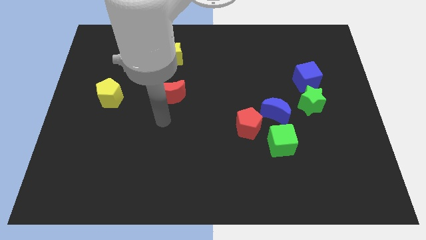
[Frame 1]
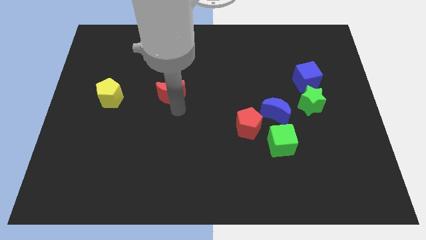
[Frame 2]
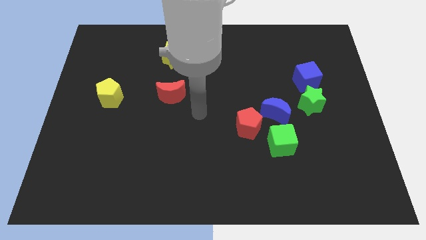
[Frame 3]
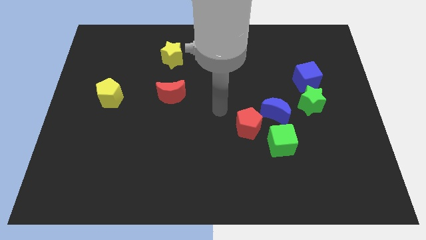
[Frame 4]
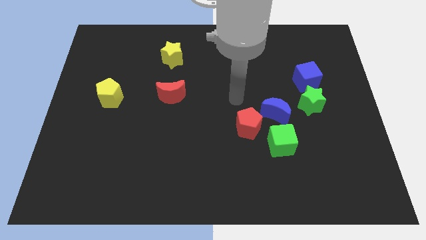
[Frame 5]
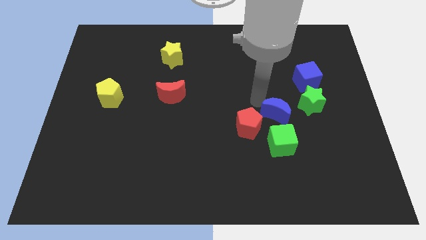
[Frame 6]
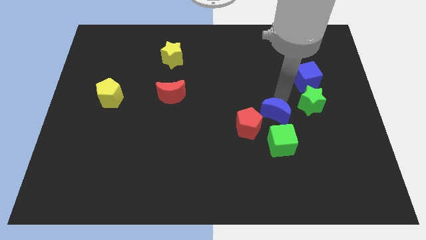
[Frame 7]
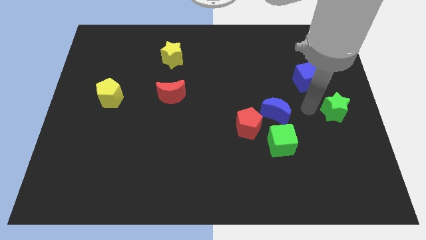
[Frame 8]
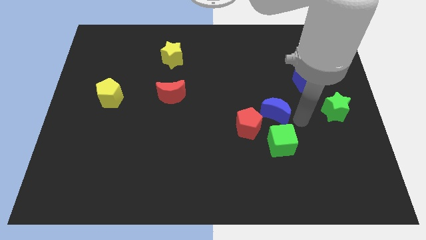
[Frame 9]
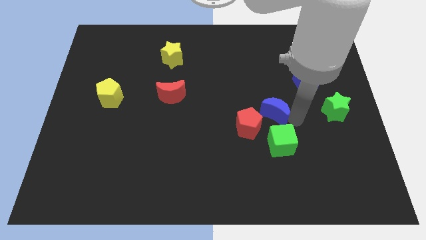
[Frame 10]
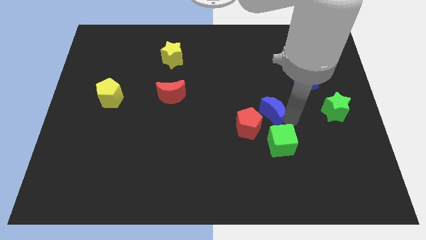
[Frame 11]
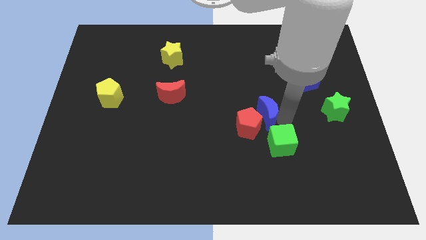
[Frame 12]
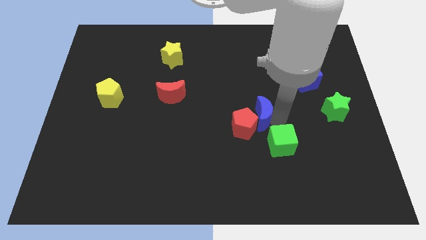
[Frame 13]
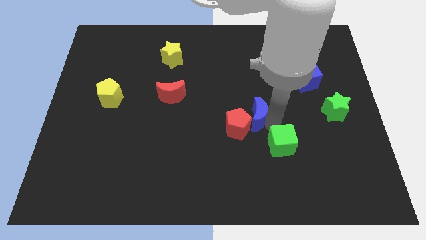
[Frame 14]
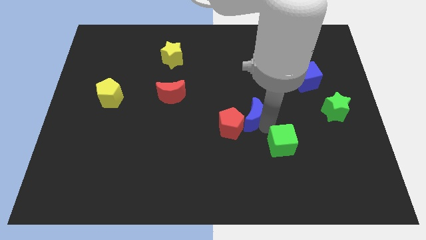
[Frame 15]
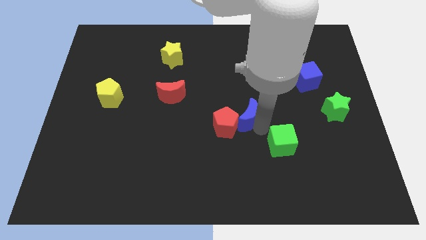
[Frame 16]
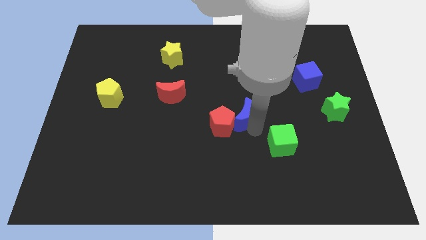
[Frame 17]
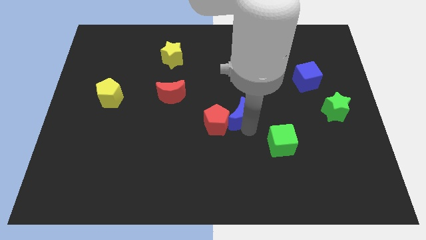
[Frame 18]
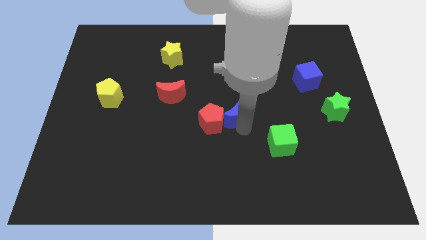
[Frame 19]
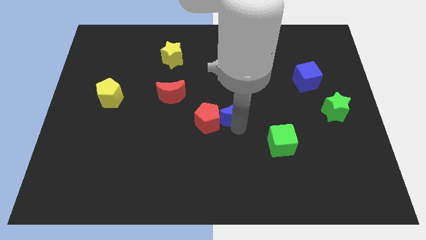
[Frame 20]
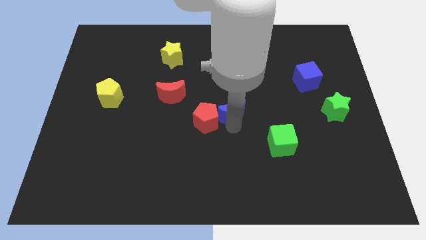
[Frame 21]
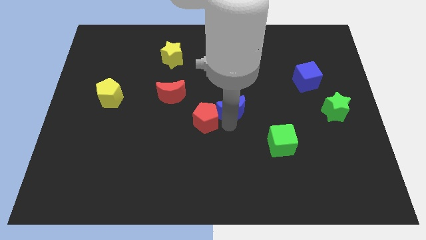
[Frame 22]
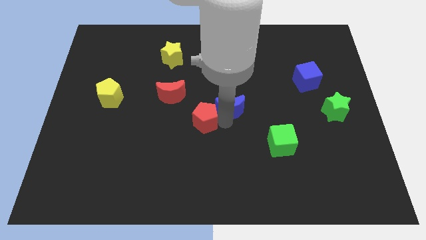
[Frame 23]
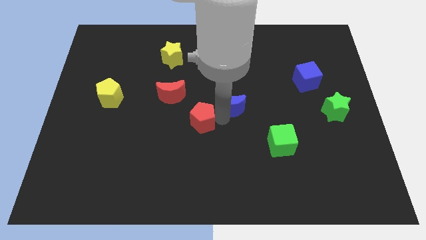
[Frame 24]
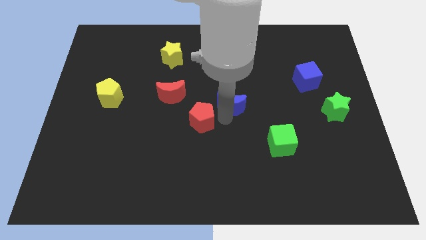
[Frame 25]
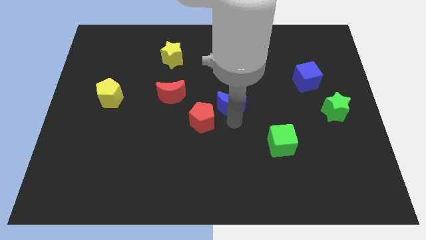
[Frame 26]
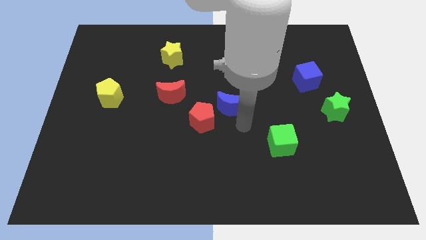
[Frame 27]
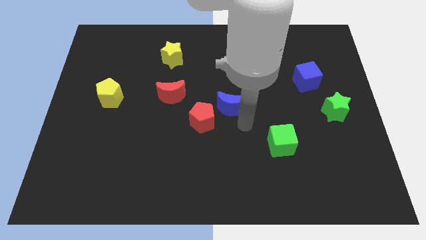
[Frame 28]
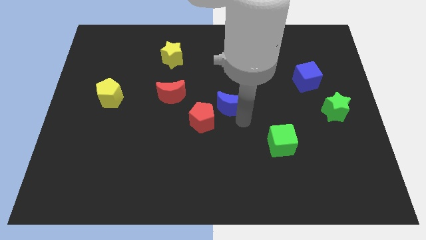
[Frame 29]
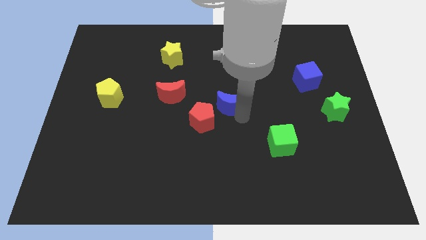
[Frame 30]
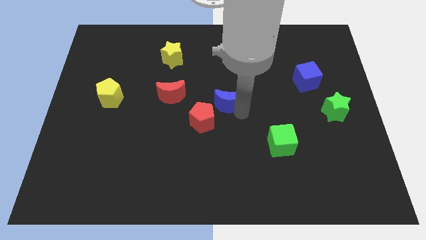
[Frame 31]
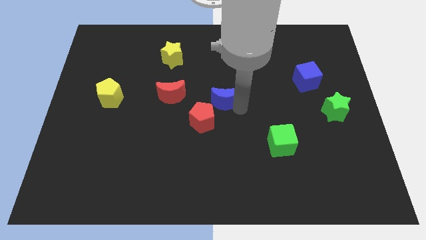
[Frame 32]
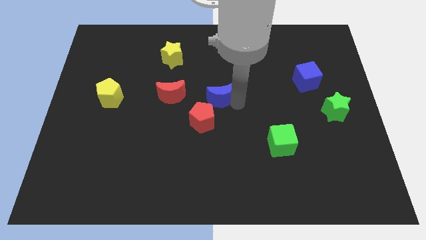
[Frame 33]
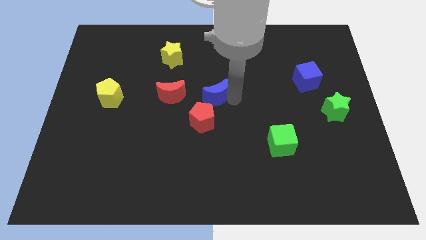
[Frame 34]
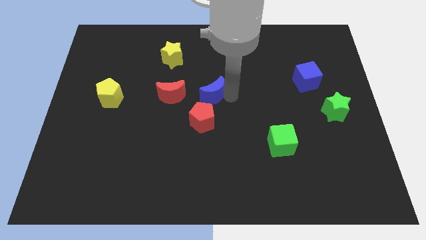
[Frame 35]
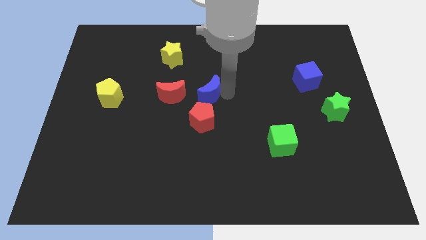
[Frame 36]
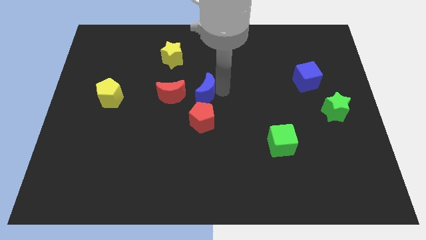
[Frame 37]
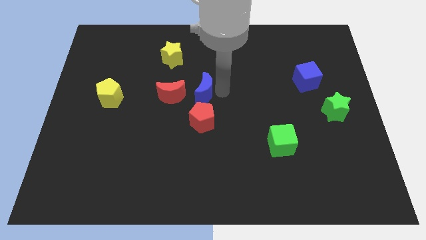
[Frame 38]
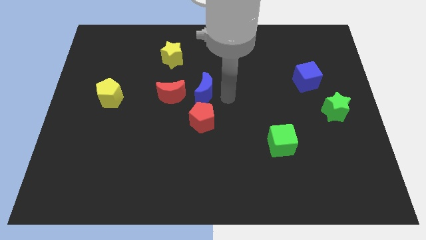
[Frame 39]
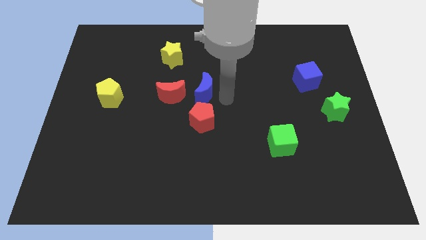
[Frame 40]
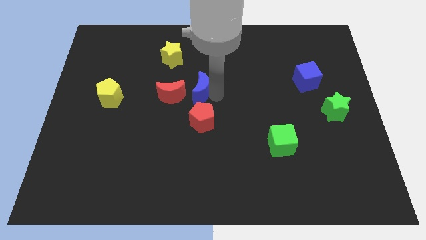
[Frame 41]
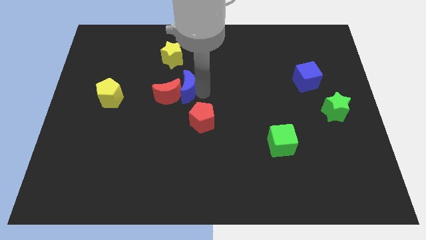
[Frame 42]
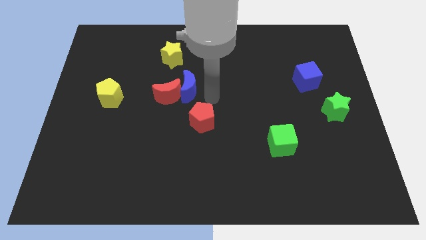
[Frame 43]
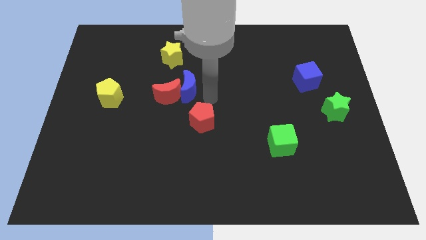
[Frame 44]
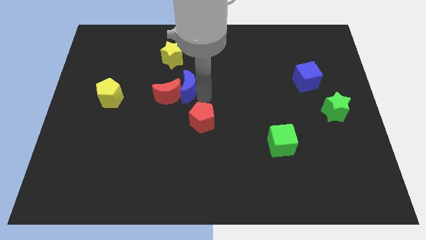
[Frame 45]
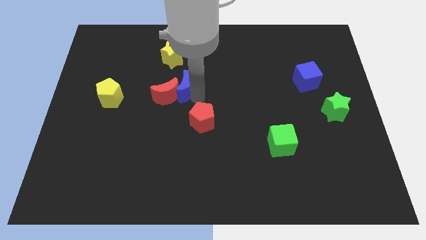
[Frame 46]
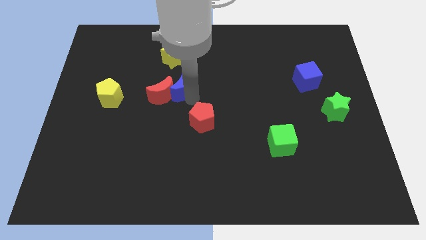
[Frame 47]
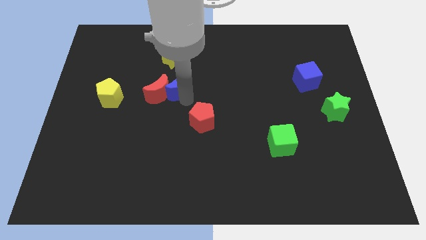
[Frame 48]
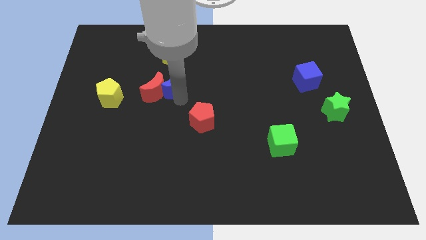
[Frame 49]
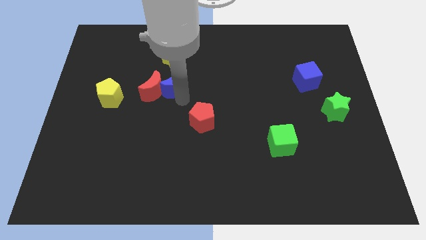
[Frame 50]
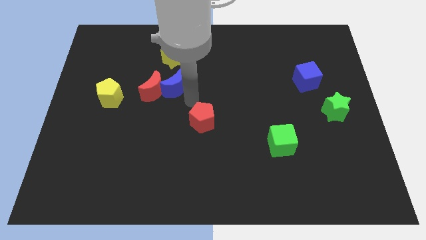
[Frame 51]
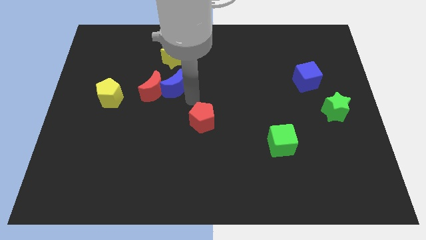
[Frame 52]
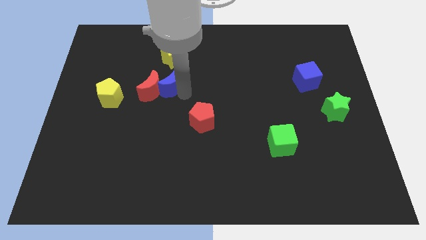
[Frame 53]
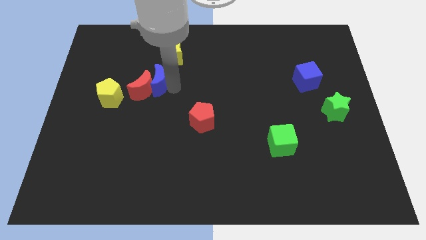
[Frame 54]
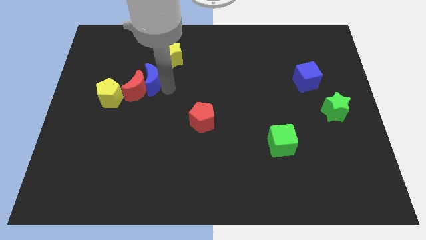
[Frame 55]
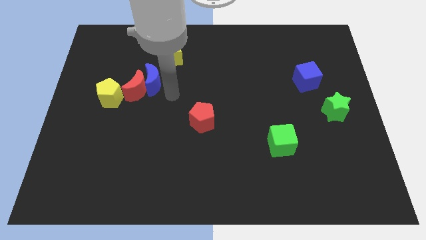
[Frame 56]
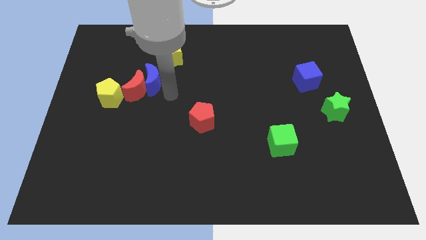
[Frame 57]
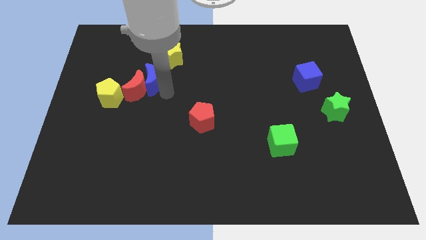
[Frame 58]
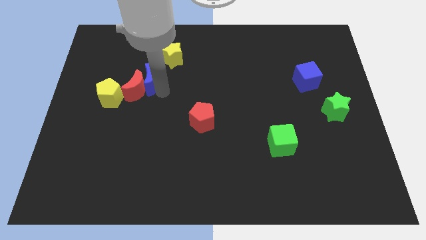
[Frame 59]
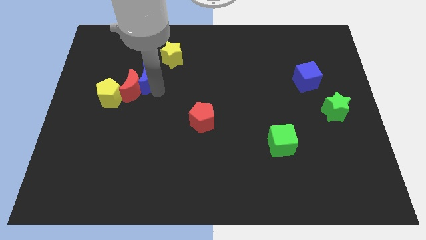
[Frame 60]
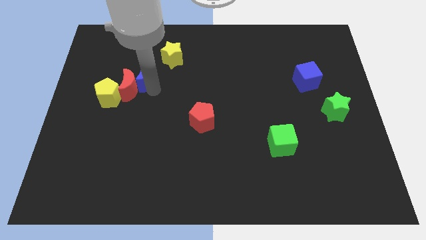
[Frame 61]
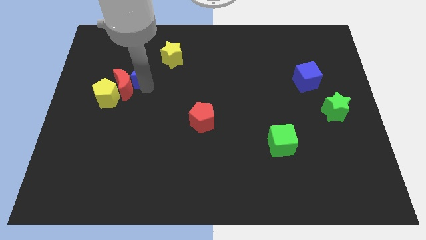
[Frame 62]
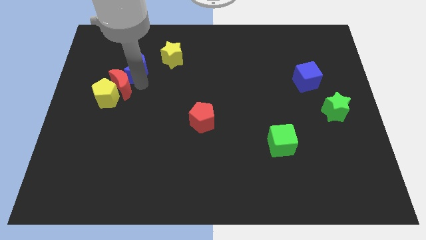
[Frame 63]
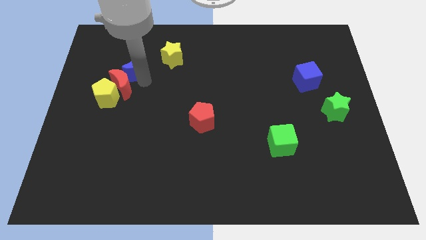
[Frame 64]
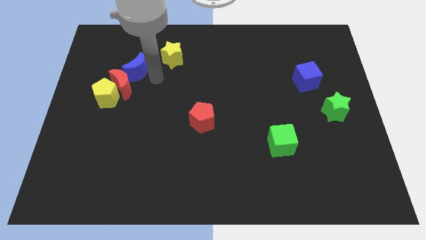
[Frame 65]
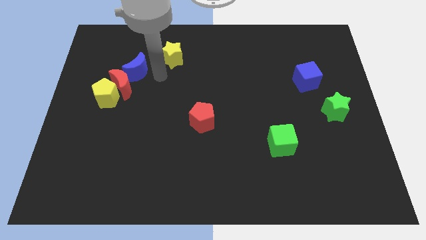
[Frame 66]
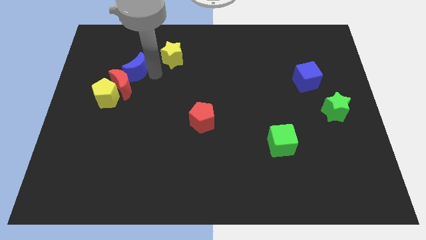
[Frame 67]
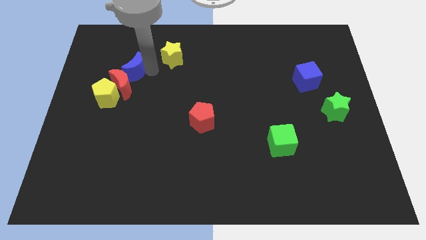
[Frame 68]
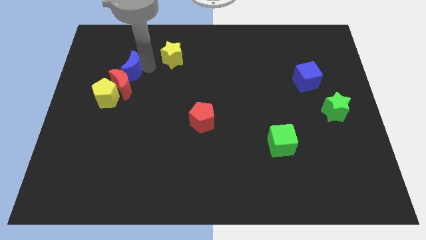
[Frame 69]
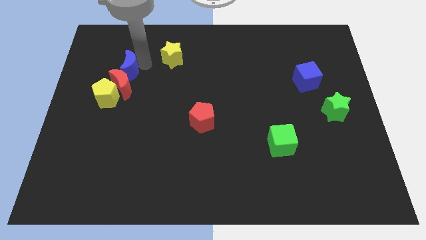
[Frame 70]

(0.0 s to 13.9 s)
move the blue moon to the top of the yellow pentagon

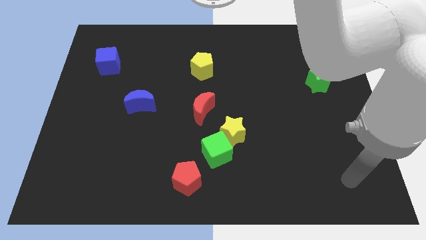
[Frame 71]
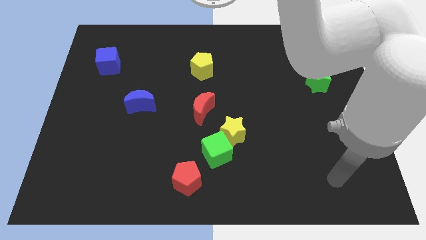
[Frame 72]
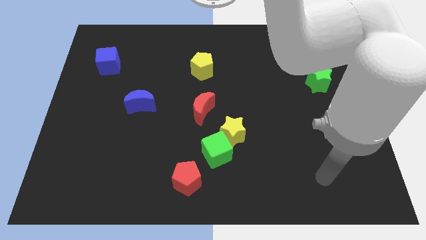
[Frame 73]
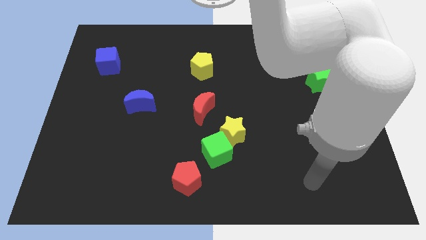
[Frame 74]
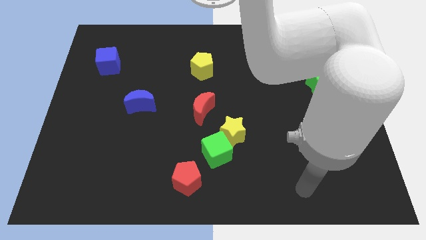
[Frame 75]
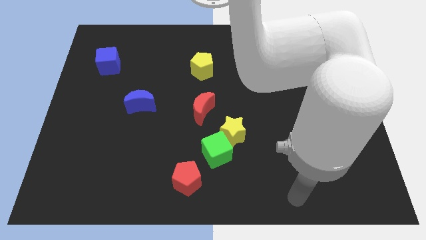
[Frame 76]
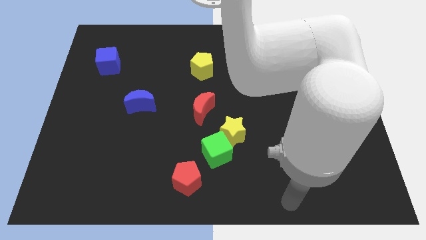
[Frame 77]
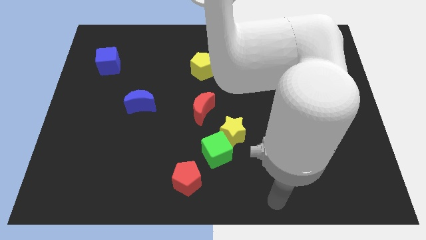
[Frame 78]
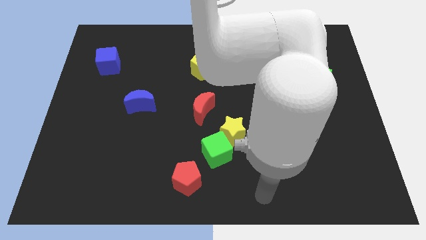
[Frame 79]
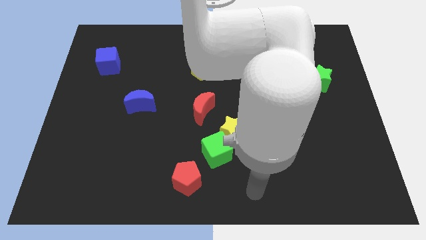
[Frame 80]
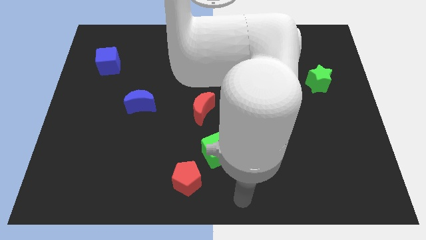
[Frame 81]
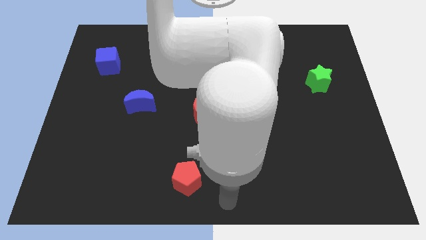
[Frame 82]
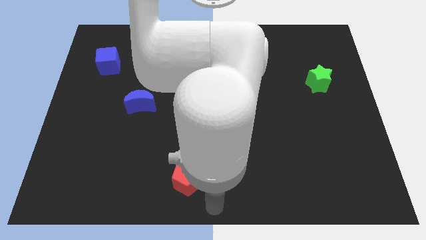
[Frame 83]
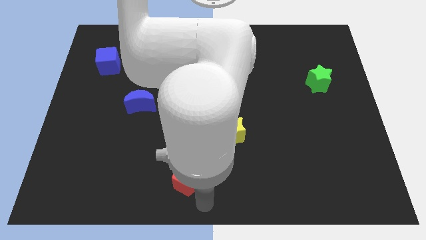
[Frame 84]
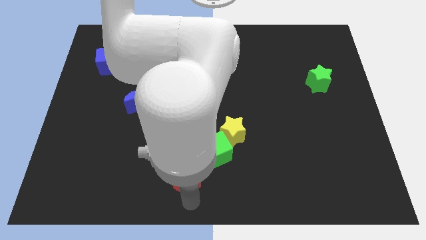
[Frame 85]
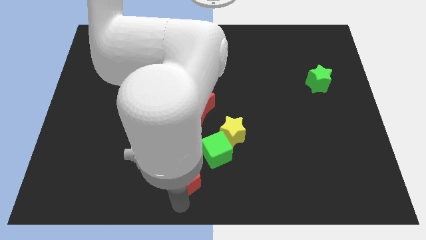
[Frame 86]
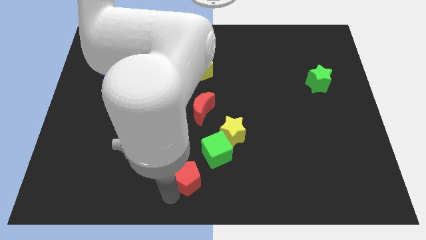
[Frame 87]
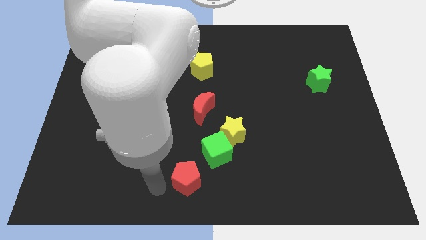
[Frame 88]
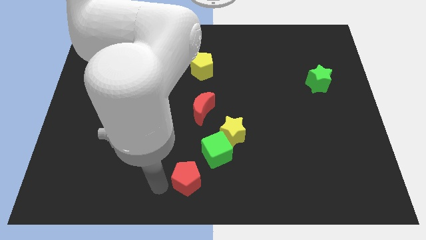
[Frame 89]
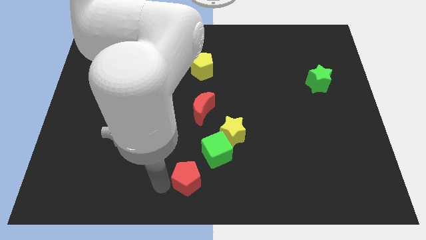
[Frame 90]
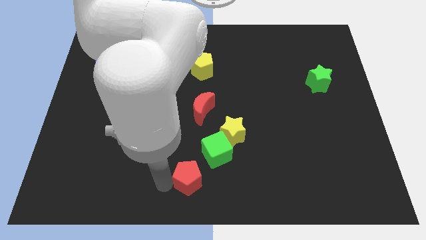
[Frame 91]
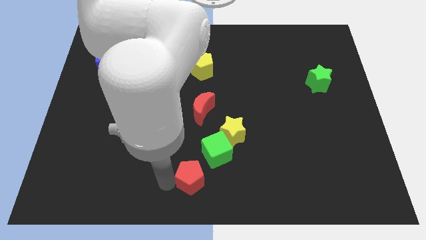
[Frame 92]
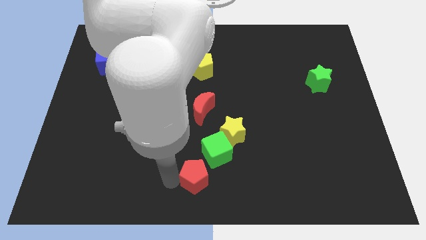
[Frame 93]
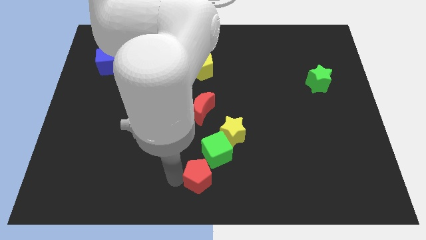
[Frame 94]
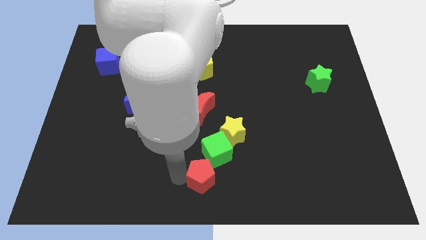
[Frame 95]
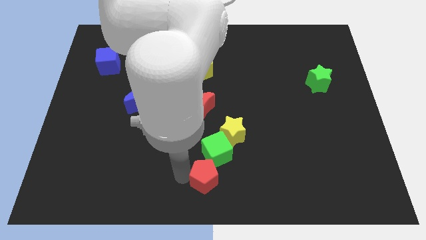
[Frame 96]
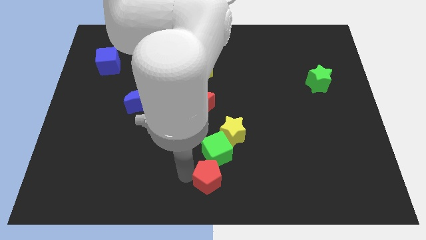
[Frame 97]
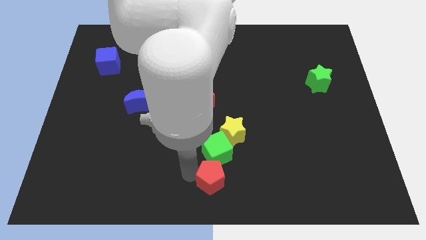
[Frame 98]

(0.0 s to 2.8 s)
slide the red pentagon below the yellow star
